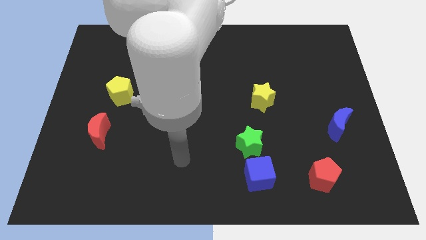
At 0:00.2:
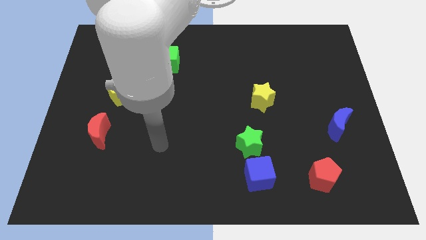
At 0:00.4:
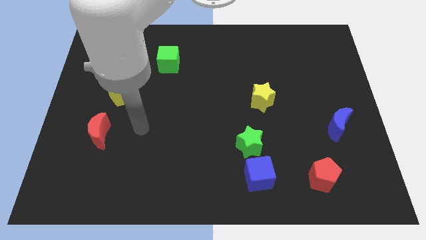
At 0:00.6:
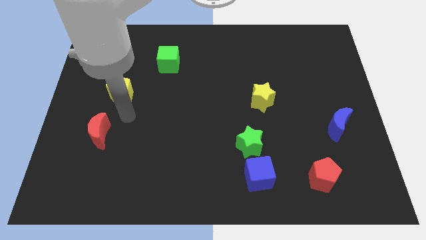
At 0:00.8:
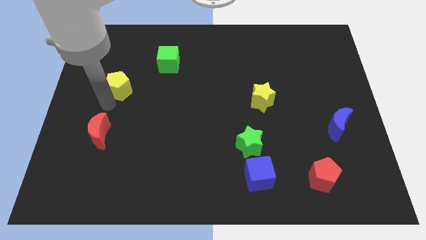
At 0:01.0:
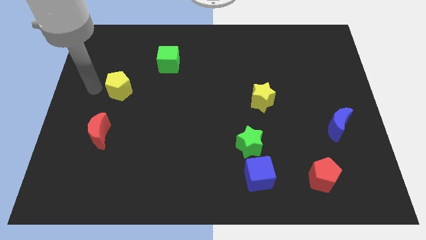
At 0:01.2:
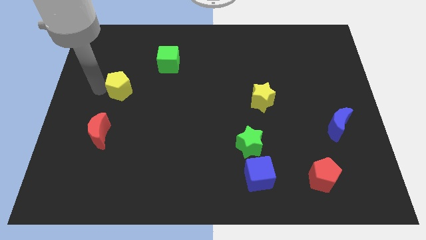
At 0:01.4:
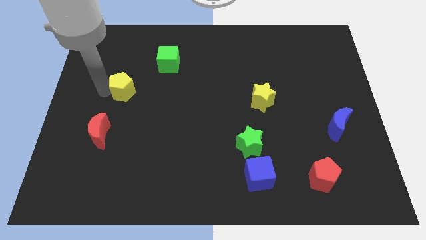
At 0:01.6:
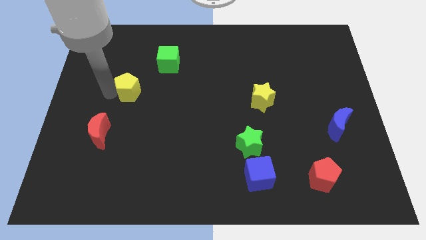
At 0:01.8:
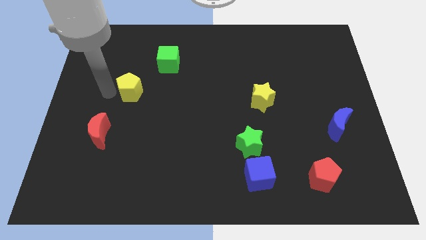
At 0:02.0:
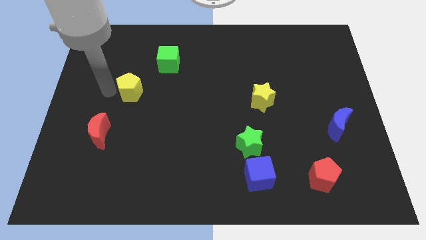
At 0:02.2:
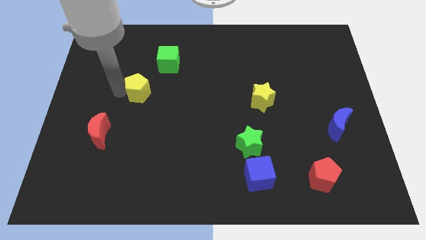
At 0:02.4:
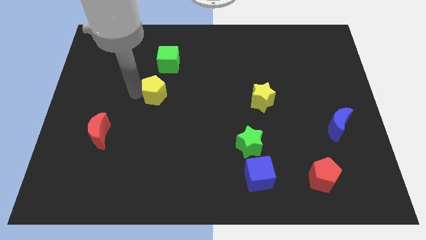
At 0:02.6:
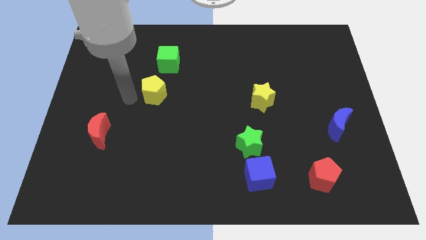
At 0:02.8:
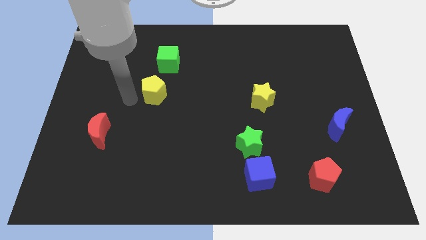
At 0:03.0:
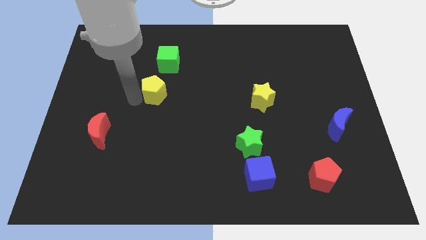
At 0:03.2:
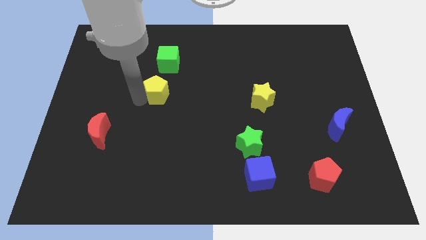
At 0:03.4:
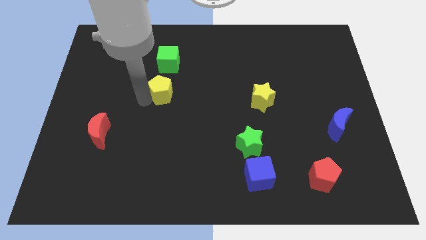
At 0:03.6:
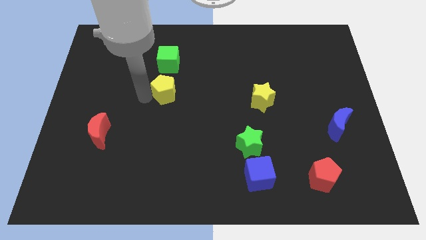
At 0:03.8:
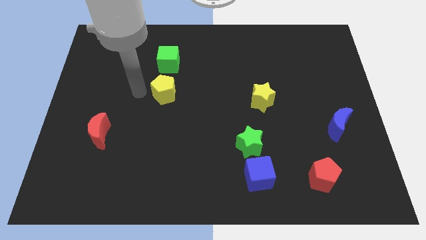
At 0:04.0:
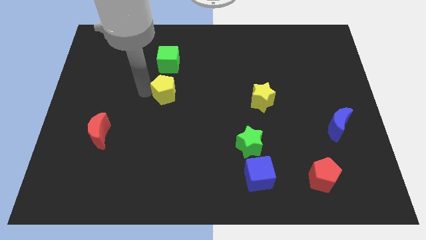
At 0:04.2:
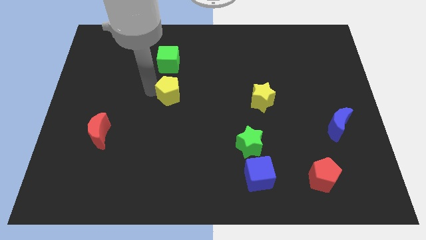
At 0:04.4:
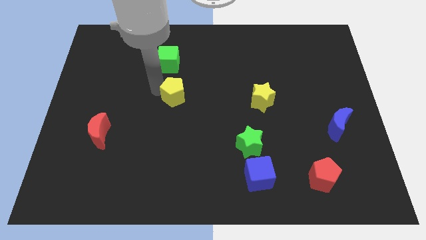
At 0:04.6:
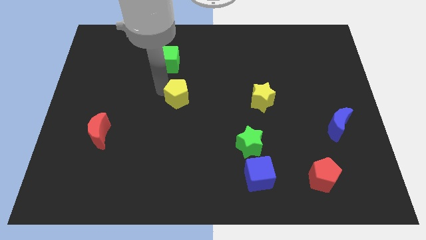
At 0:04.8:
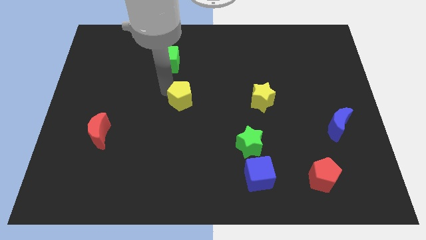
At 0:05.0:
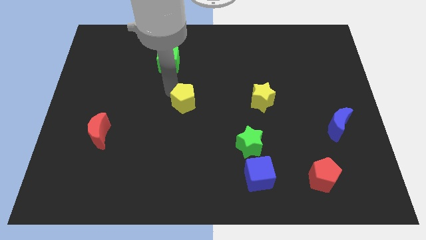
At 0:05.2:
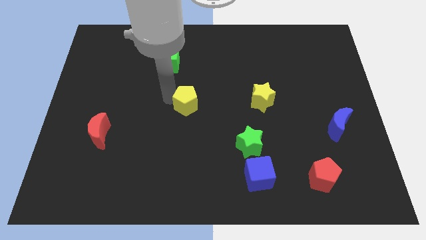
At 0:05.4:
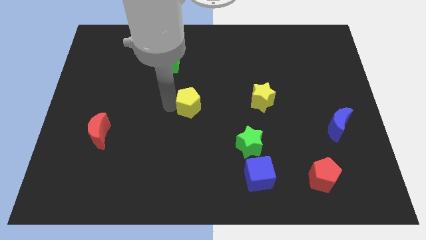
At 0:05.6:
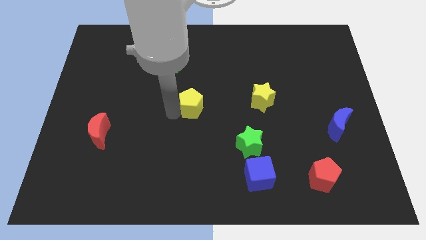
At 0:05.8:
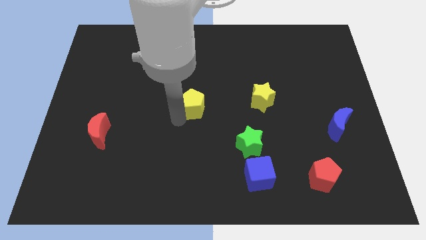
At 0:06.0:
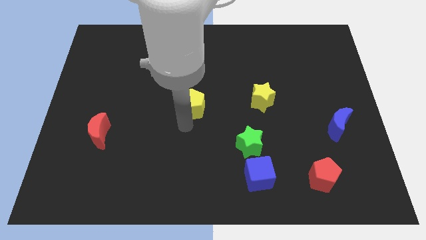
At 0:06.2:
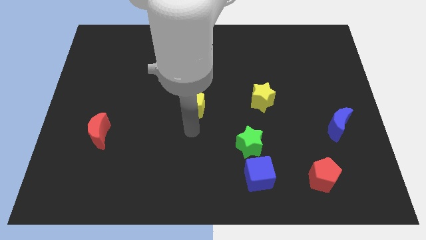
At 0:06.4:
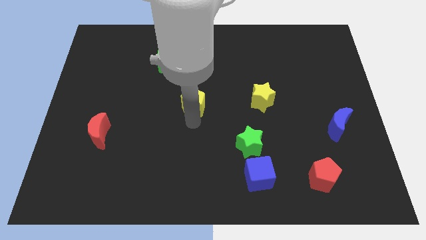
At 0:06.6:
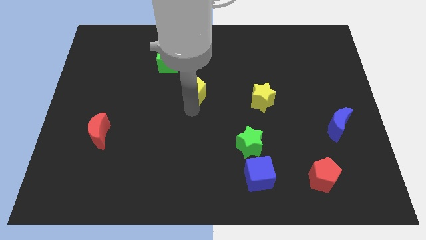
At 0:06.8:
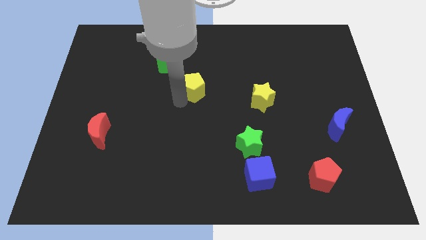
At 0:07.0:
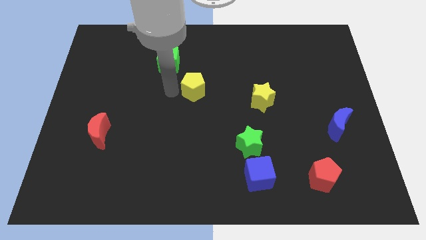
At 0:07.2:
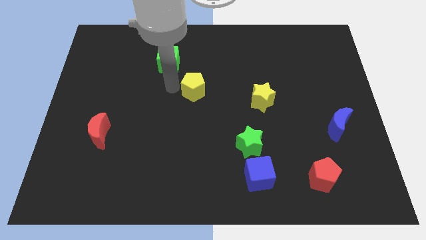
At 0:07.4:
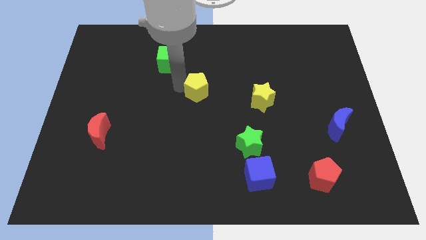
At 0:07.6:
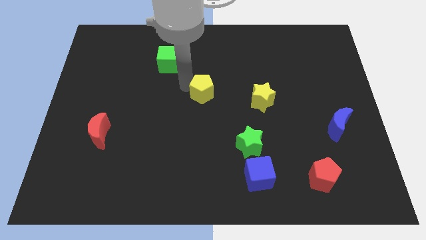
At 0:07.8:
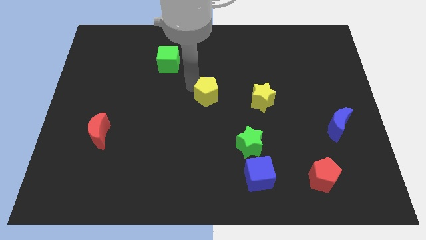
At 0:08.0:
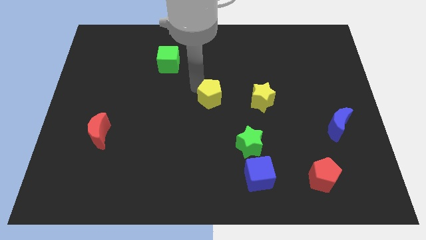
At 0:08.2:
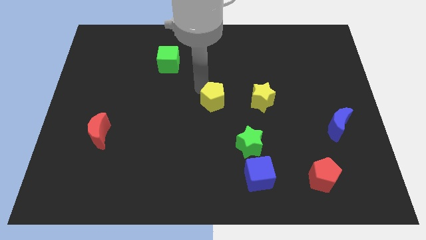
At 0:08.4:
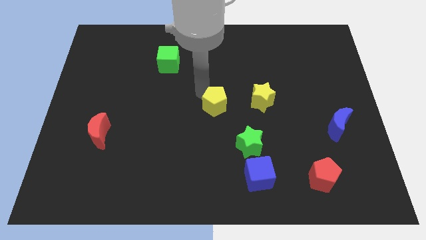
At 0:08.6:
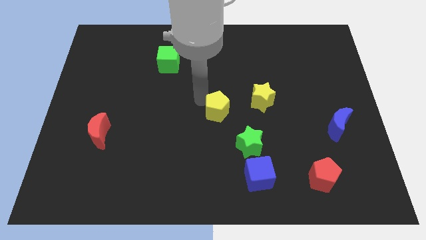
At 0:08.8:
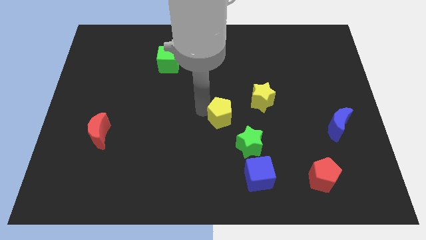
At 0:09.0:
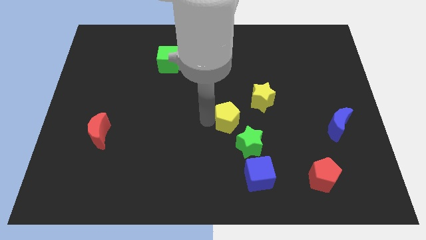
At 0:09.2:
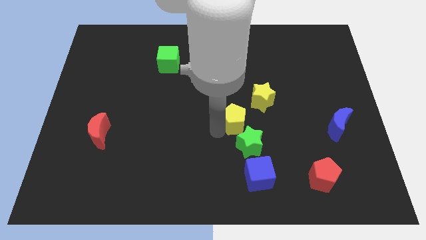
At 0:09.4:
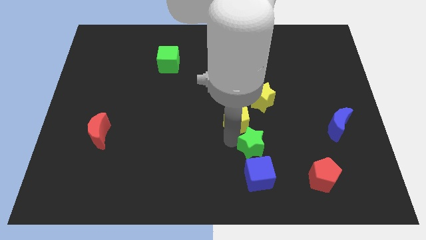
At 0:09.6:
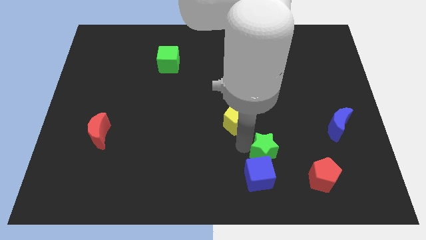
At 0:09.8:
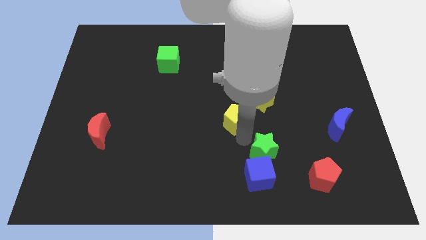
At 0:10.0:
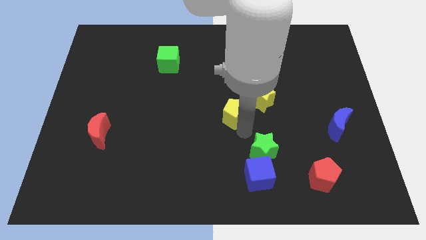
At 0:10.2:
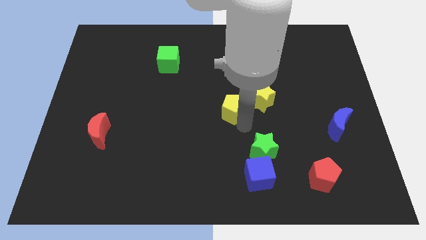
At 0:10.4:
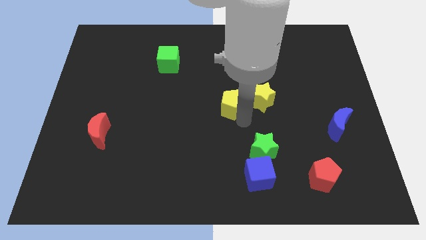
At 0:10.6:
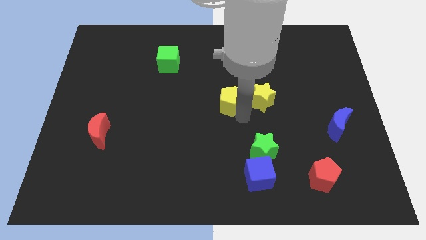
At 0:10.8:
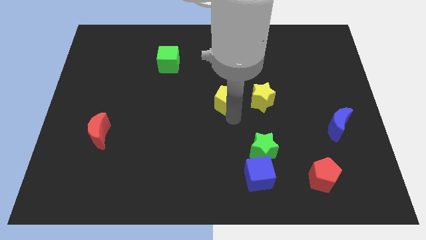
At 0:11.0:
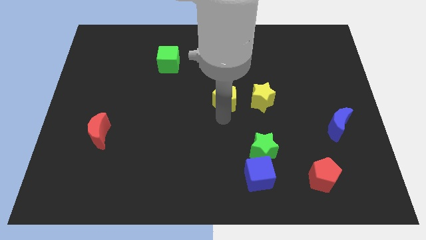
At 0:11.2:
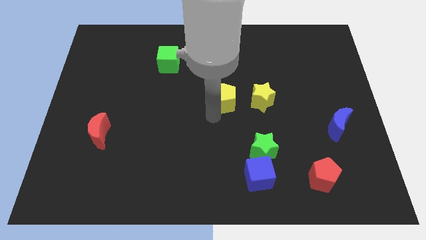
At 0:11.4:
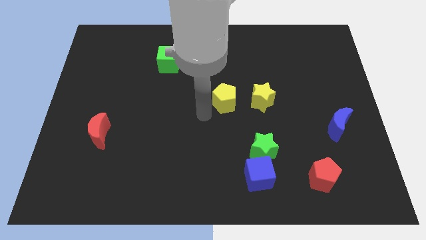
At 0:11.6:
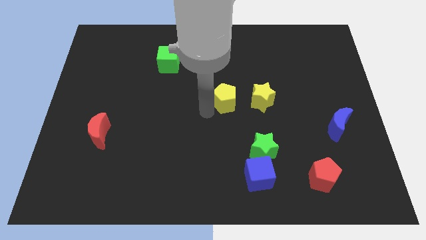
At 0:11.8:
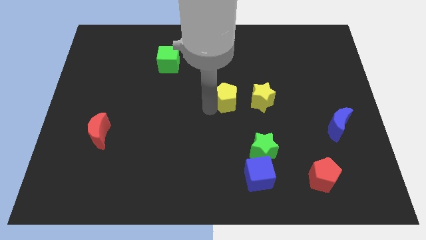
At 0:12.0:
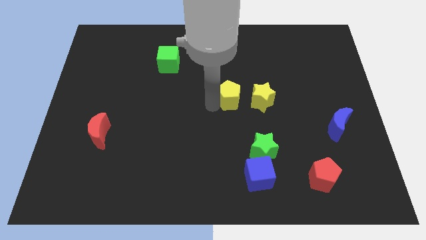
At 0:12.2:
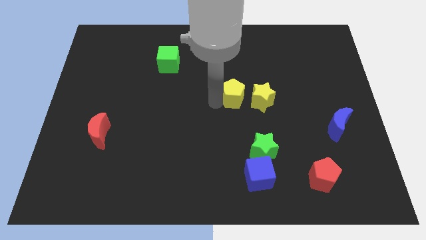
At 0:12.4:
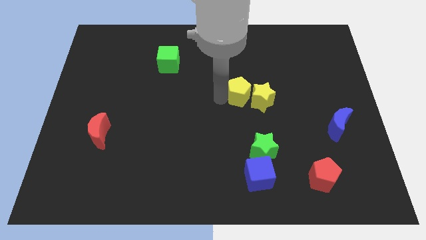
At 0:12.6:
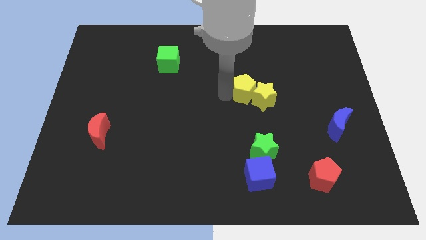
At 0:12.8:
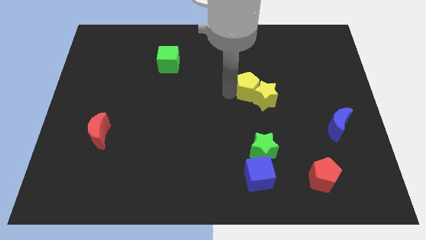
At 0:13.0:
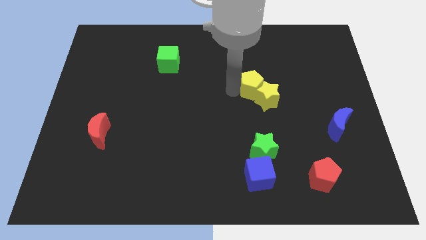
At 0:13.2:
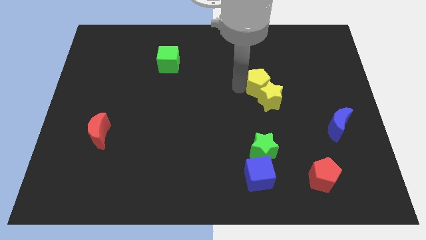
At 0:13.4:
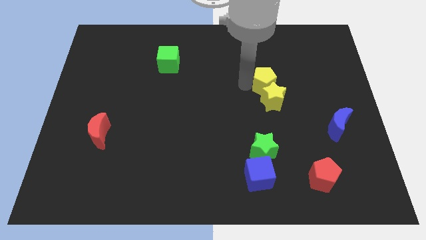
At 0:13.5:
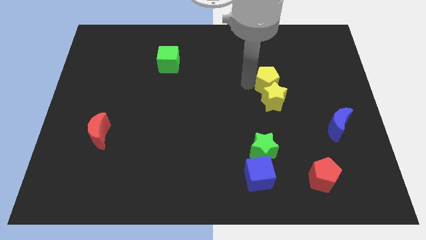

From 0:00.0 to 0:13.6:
push the yellow pentagon diagonally up and to the right of the yellow star
